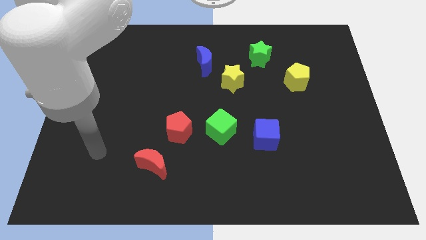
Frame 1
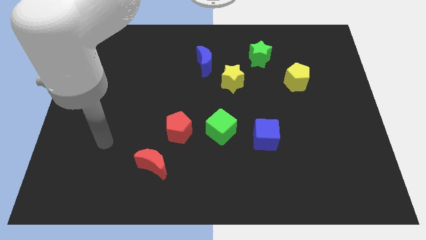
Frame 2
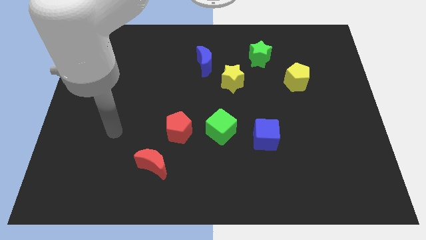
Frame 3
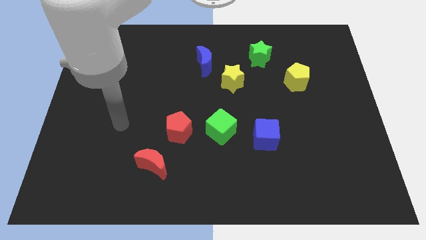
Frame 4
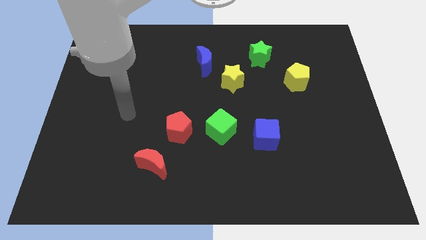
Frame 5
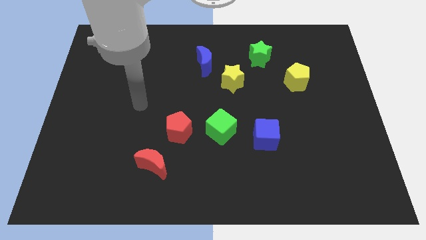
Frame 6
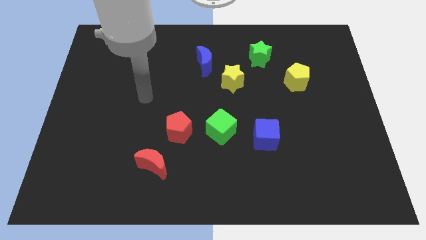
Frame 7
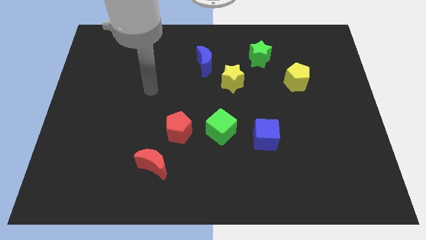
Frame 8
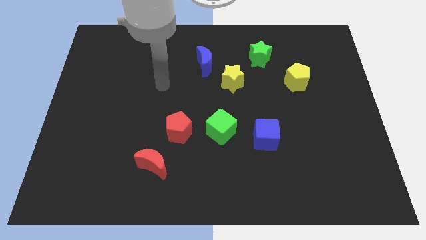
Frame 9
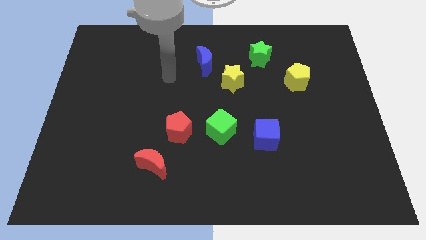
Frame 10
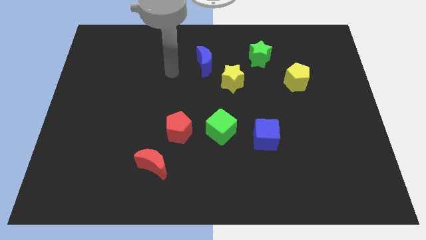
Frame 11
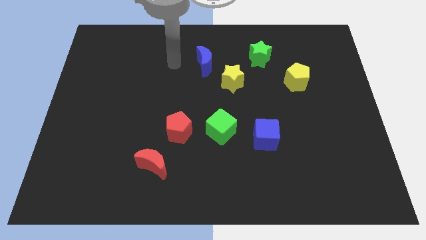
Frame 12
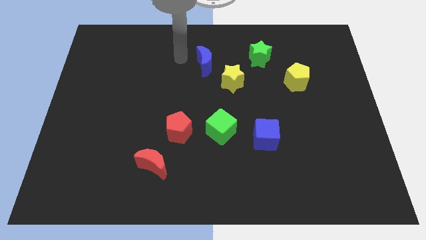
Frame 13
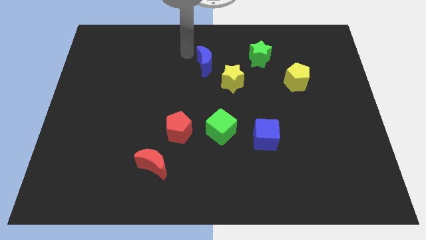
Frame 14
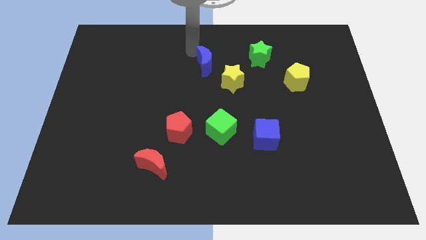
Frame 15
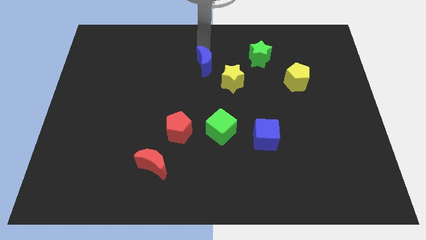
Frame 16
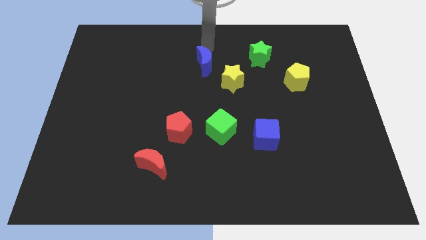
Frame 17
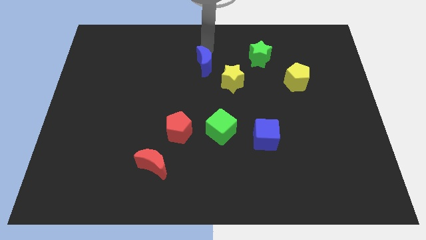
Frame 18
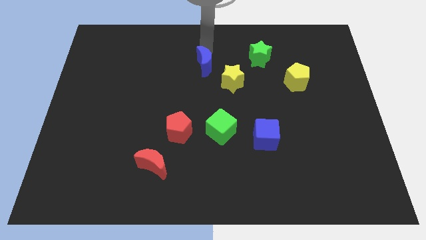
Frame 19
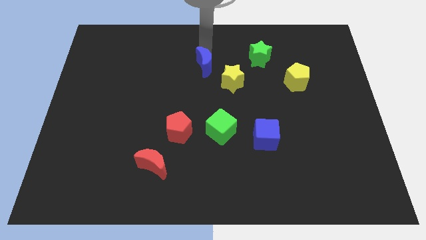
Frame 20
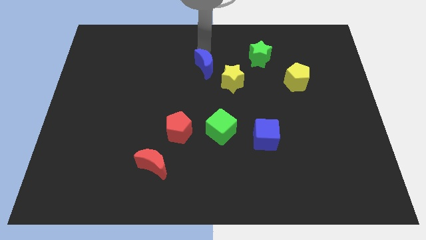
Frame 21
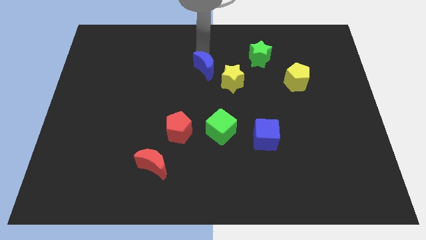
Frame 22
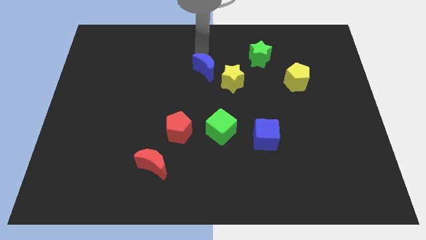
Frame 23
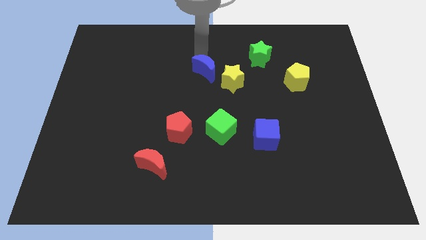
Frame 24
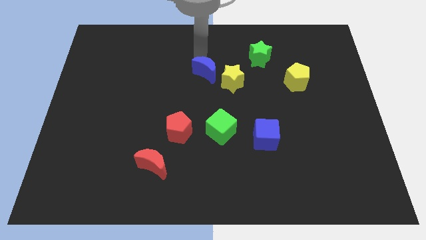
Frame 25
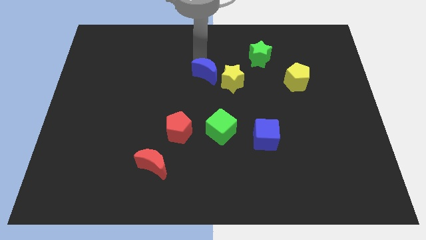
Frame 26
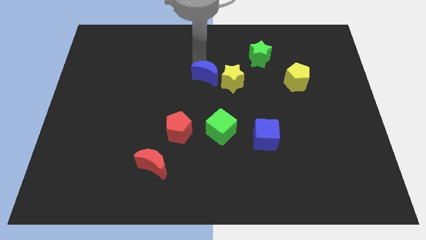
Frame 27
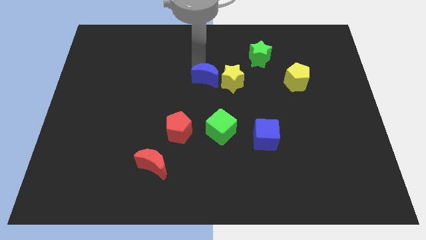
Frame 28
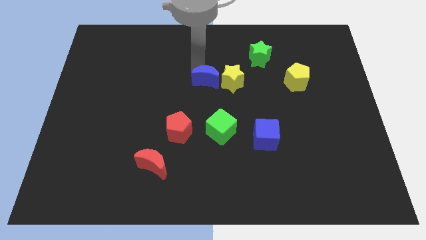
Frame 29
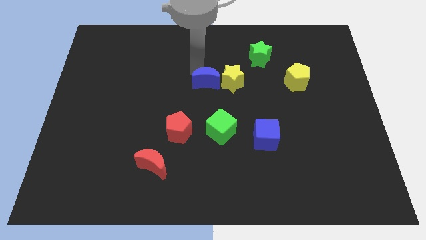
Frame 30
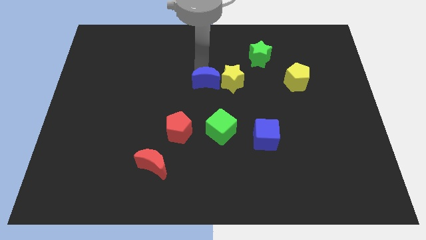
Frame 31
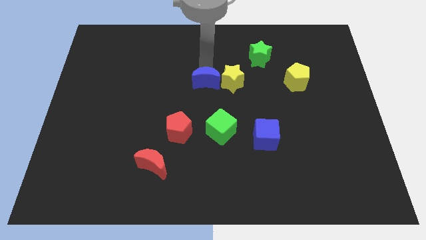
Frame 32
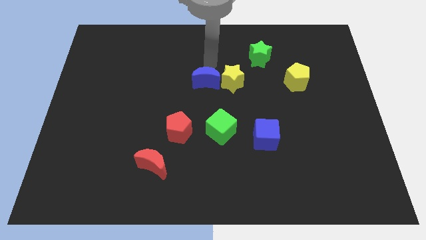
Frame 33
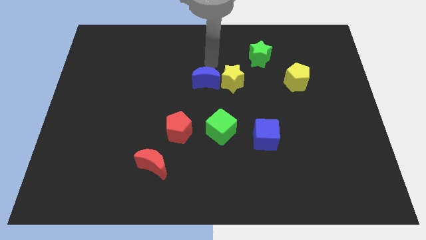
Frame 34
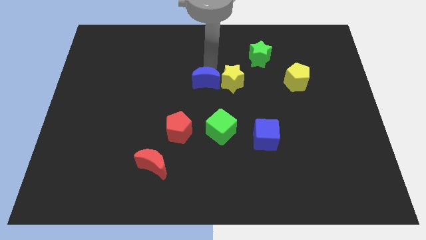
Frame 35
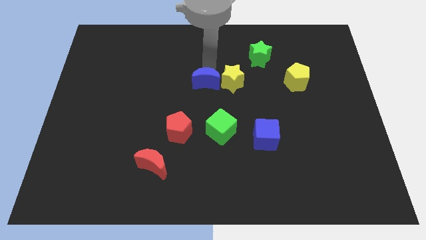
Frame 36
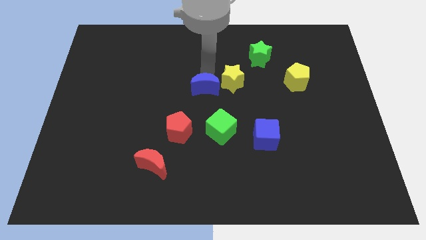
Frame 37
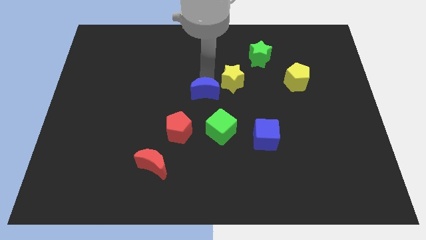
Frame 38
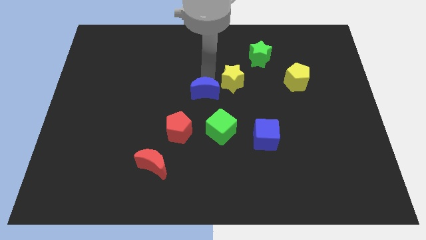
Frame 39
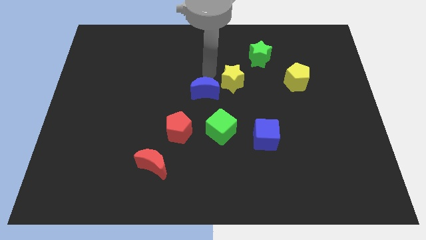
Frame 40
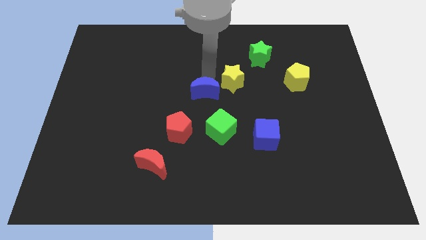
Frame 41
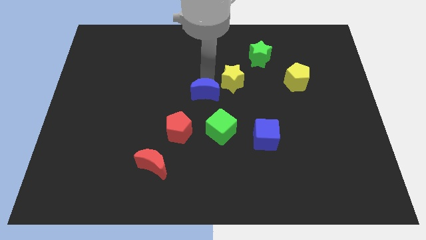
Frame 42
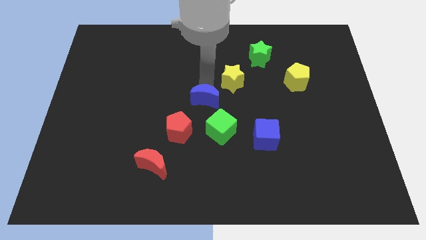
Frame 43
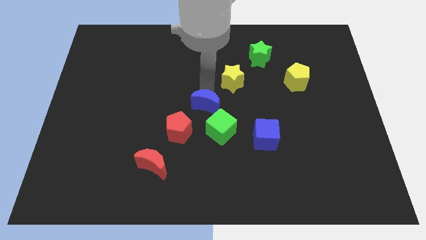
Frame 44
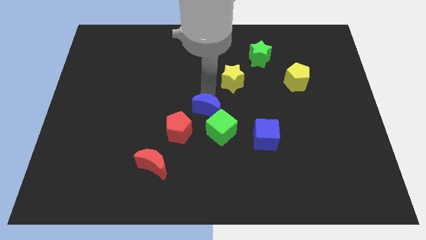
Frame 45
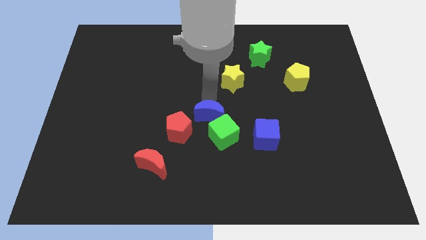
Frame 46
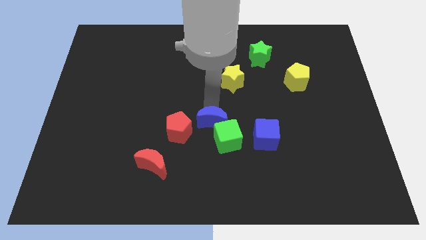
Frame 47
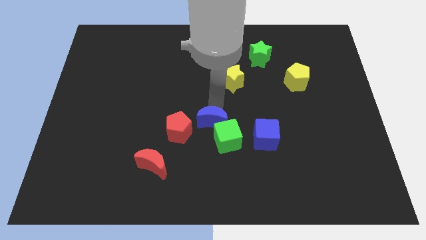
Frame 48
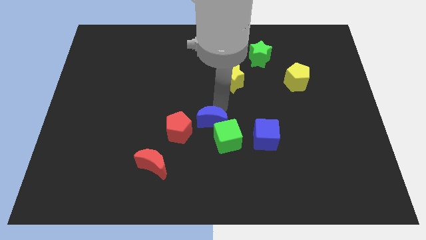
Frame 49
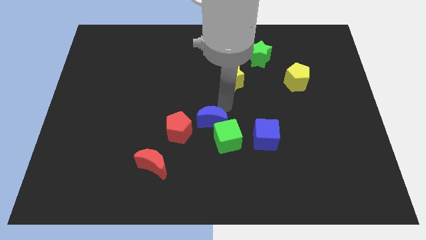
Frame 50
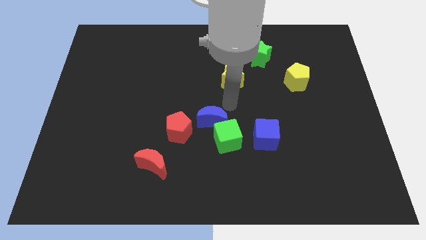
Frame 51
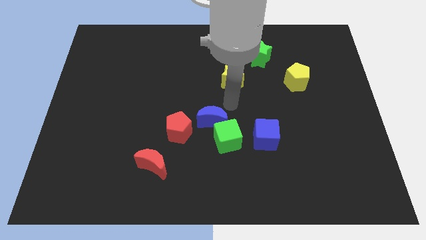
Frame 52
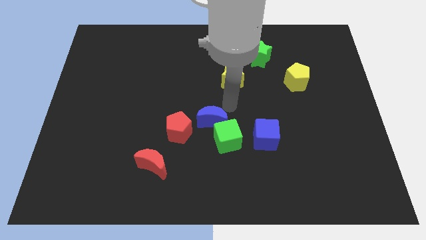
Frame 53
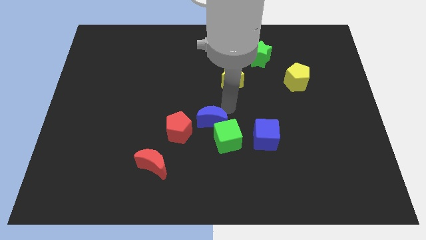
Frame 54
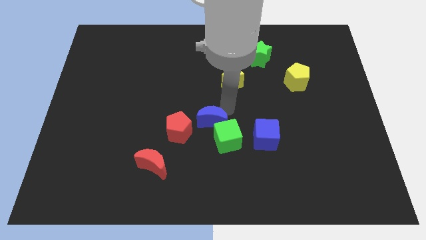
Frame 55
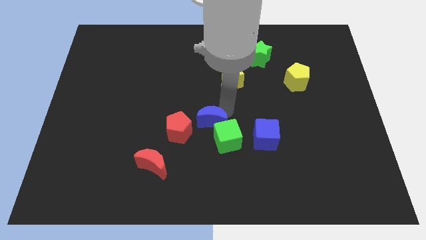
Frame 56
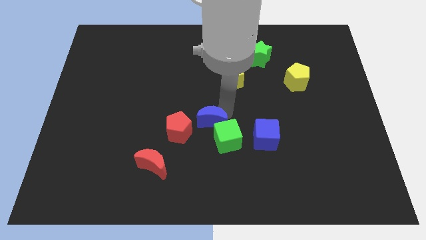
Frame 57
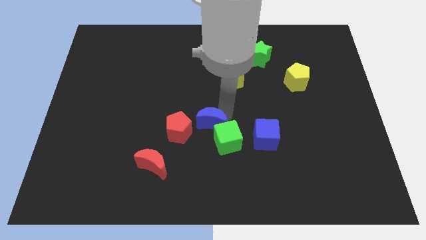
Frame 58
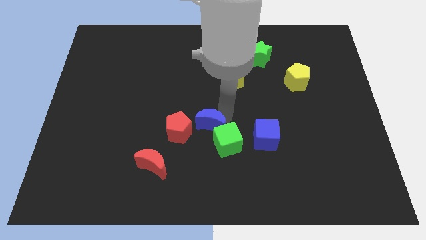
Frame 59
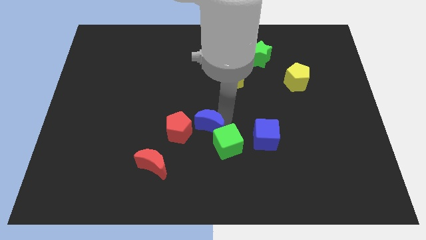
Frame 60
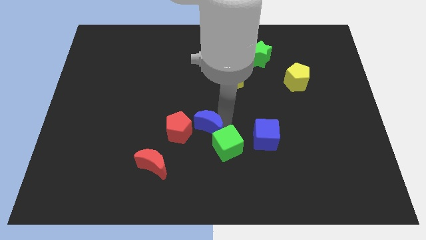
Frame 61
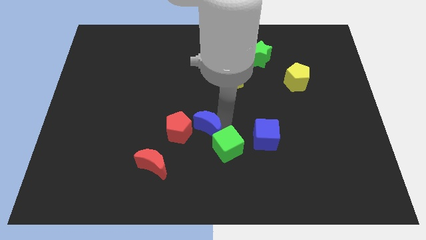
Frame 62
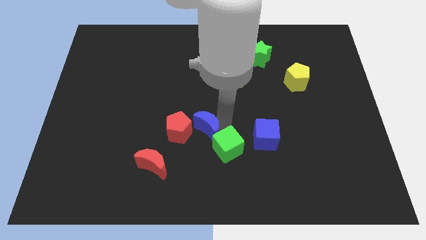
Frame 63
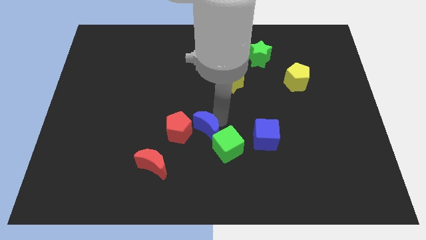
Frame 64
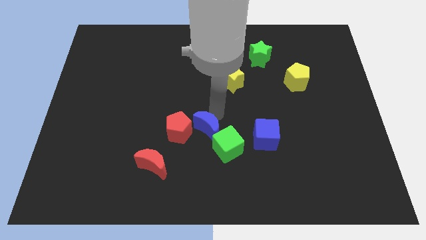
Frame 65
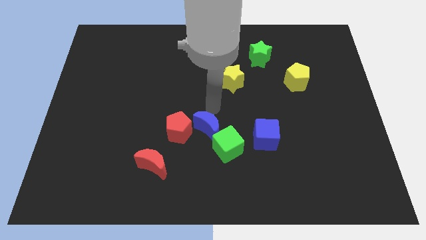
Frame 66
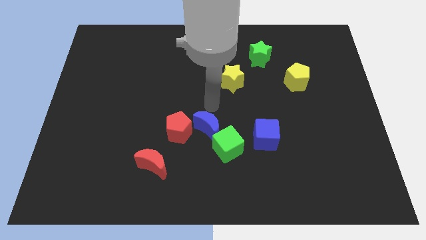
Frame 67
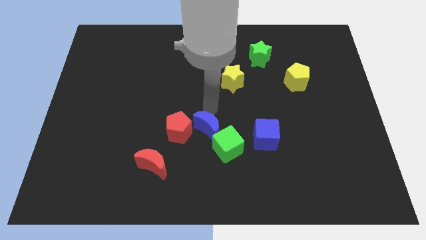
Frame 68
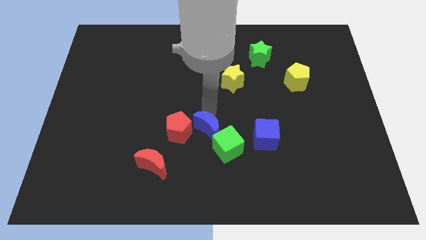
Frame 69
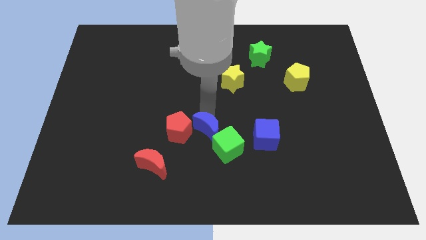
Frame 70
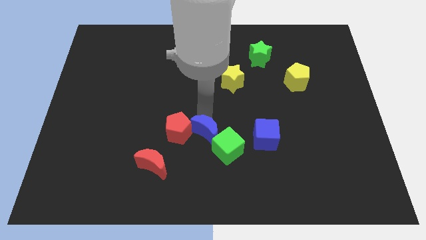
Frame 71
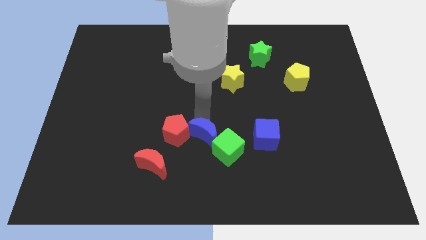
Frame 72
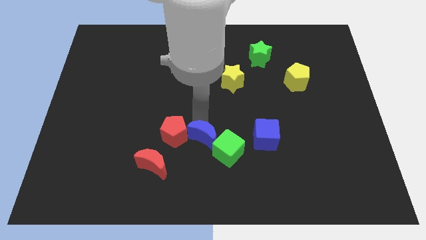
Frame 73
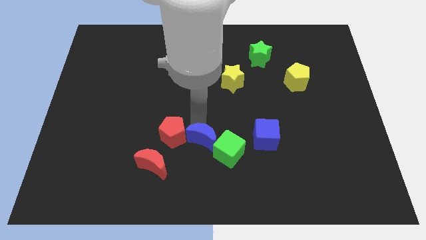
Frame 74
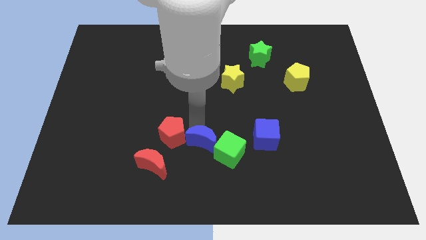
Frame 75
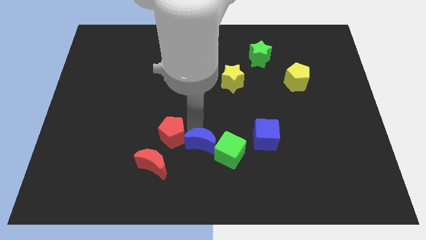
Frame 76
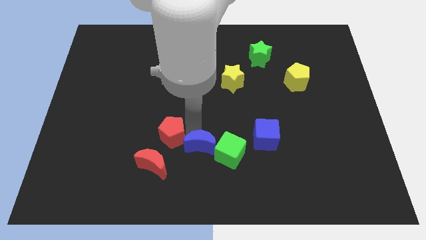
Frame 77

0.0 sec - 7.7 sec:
push the blue moon to the right side of the red moon
